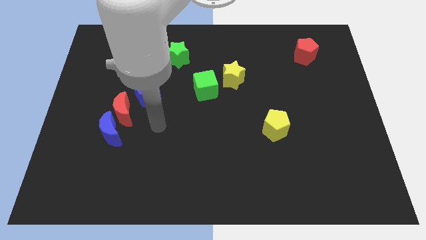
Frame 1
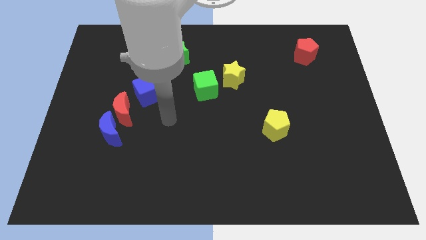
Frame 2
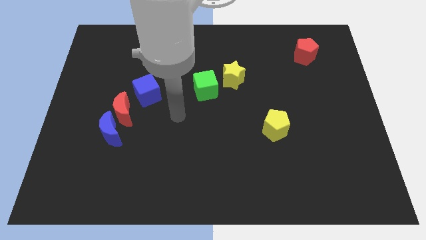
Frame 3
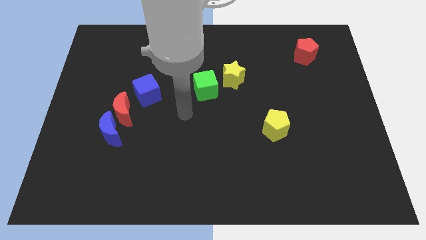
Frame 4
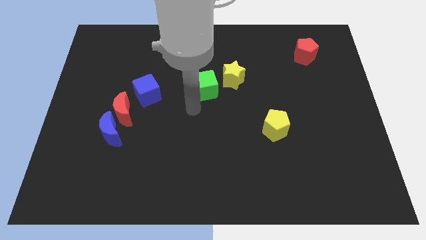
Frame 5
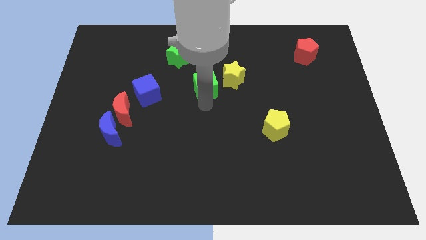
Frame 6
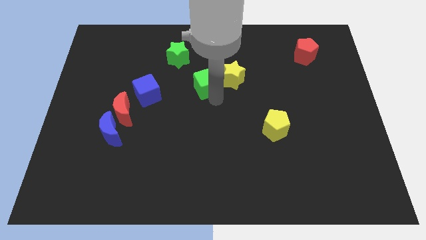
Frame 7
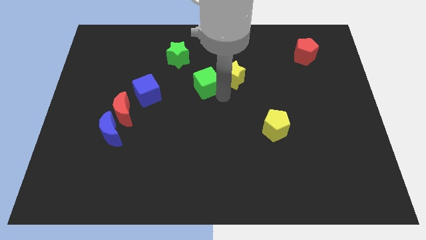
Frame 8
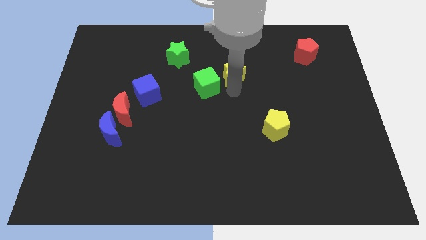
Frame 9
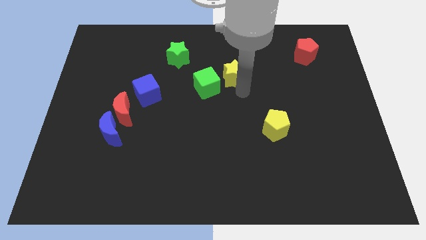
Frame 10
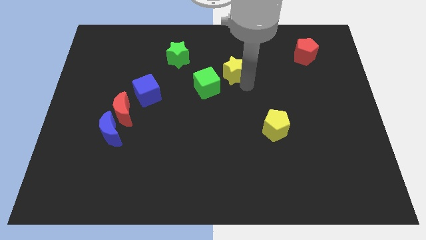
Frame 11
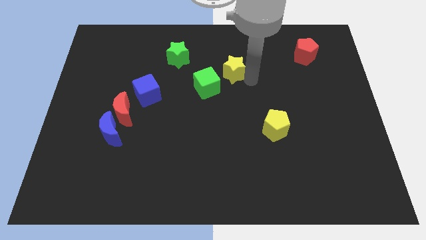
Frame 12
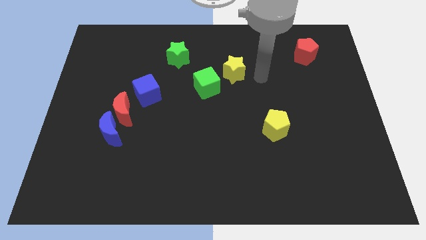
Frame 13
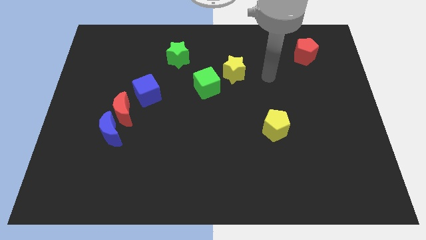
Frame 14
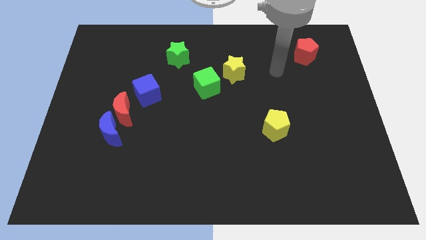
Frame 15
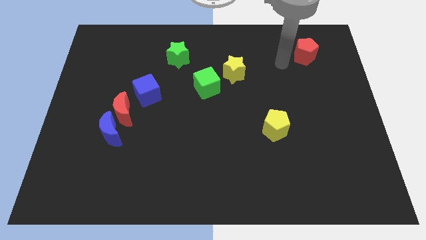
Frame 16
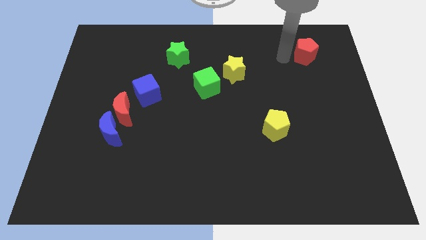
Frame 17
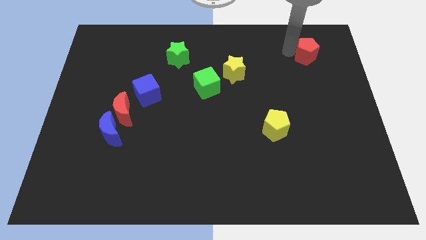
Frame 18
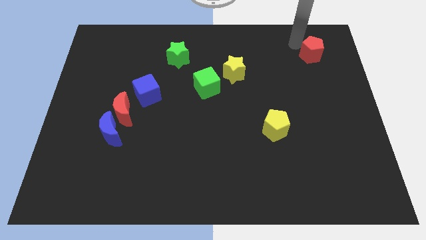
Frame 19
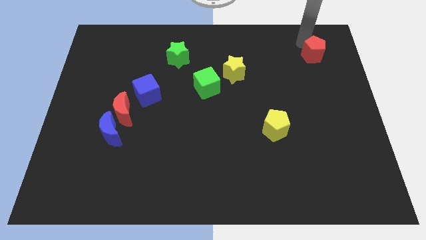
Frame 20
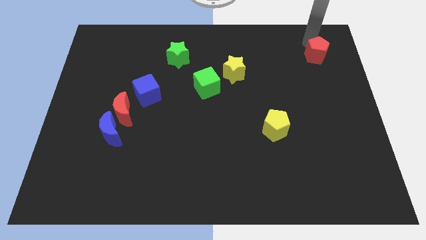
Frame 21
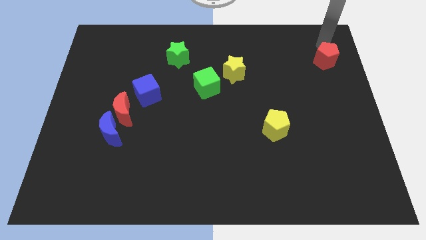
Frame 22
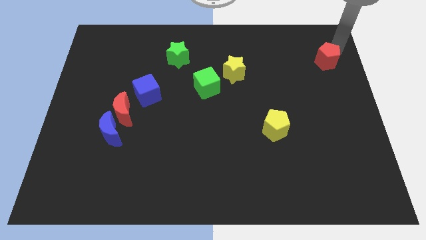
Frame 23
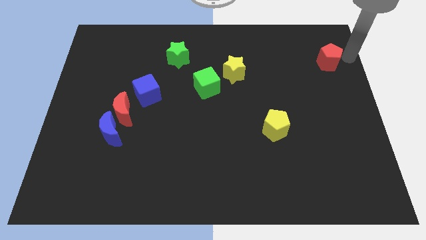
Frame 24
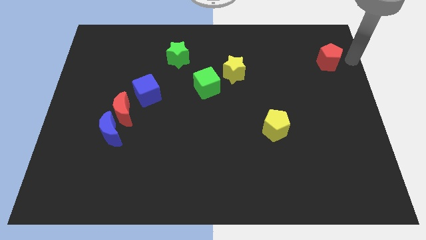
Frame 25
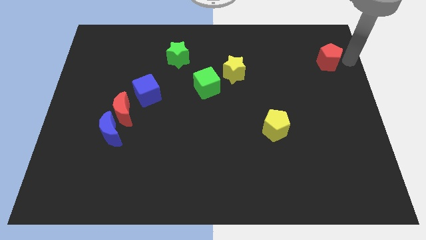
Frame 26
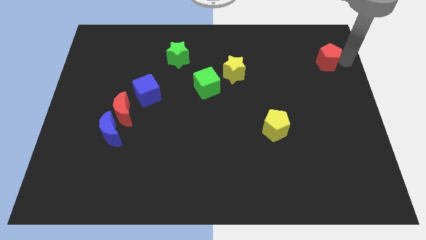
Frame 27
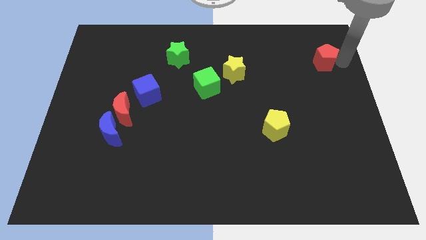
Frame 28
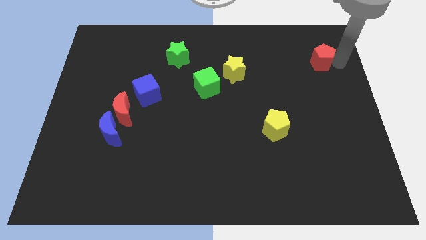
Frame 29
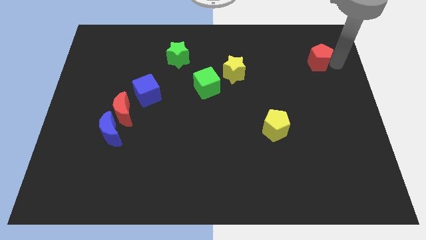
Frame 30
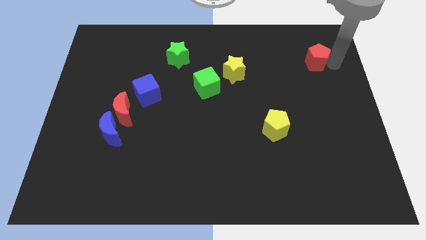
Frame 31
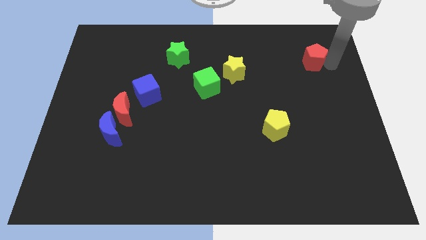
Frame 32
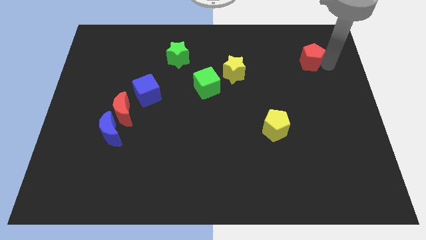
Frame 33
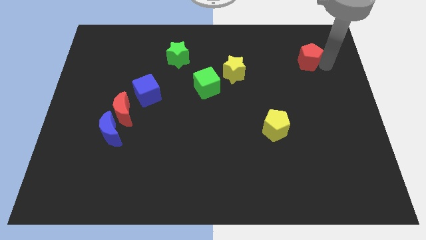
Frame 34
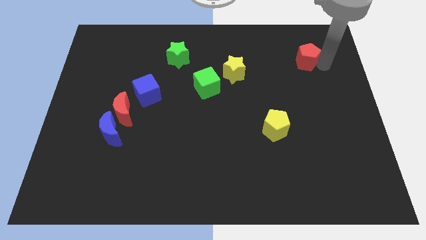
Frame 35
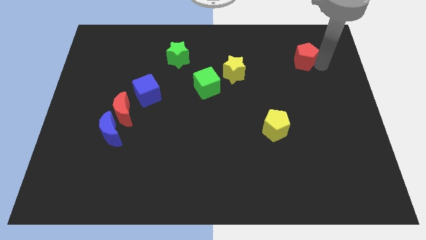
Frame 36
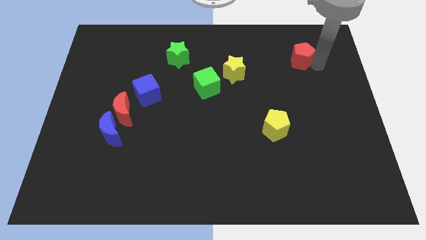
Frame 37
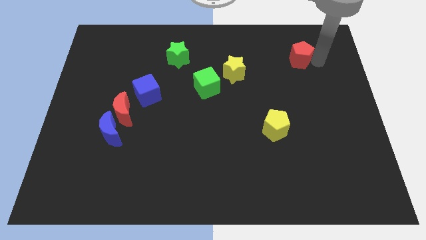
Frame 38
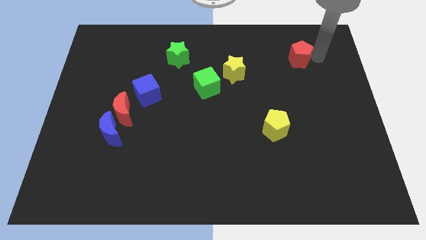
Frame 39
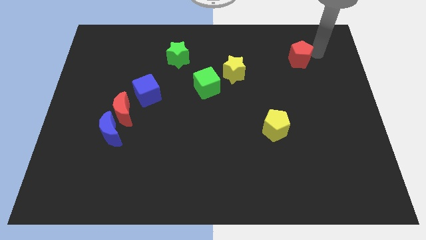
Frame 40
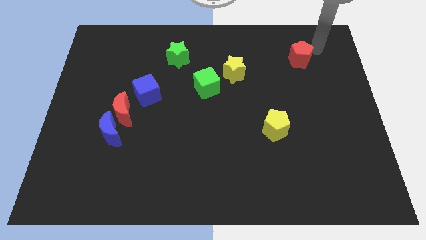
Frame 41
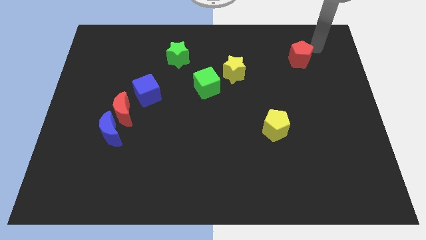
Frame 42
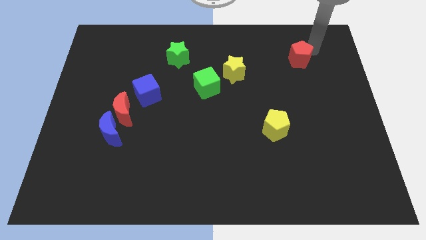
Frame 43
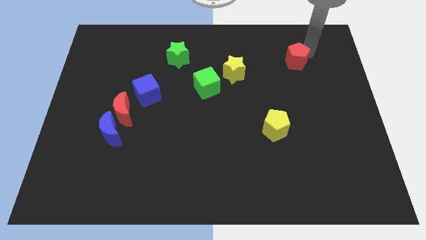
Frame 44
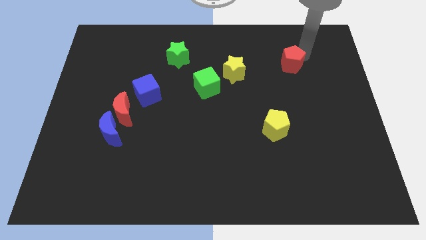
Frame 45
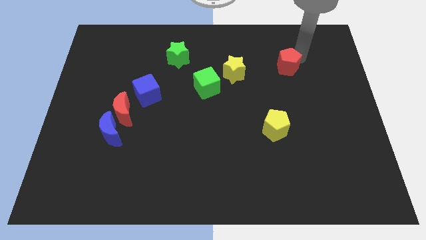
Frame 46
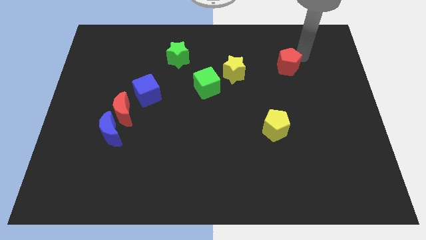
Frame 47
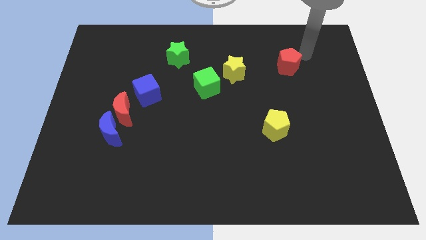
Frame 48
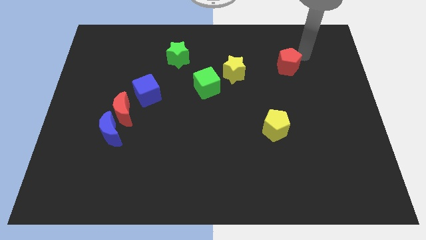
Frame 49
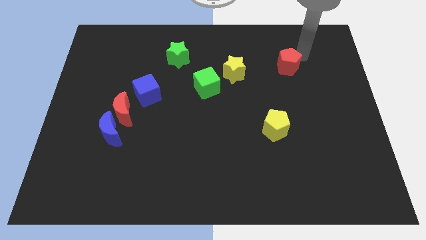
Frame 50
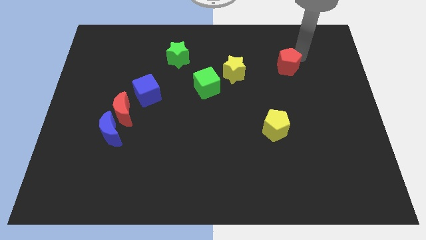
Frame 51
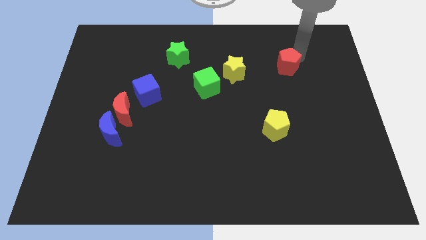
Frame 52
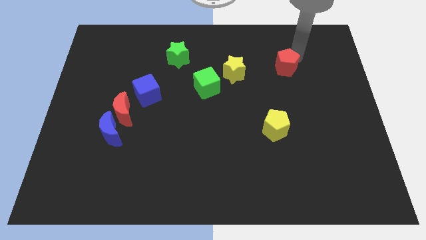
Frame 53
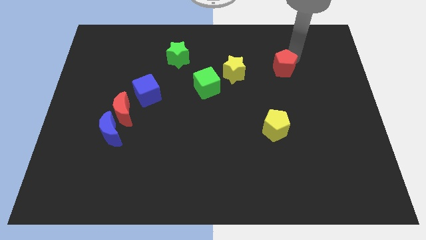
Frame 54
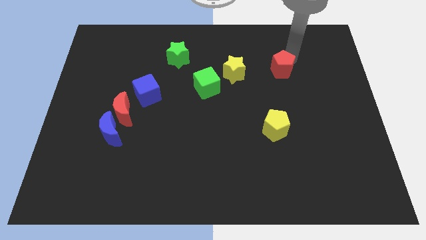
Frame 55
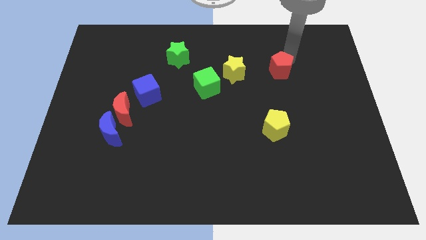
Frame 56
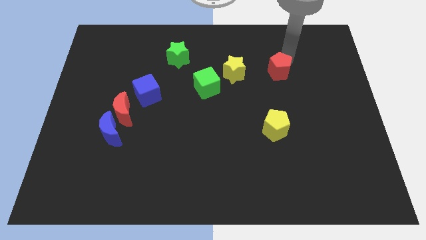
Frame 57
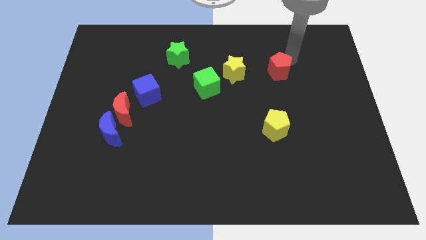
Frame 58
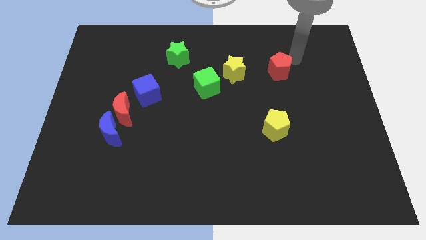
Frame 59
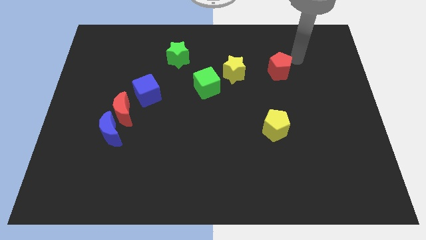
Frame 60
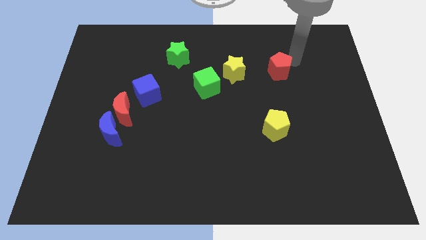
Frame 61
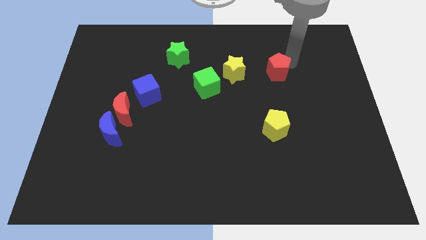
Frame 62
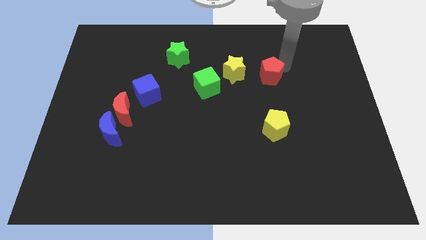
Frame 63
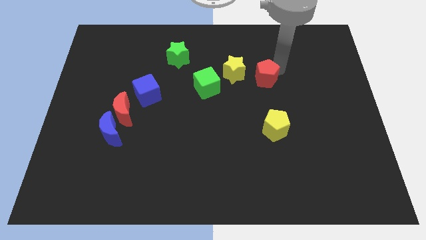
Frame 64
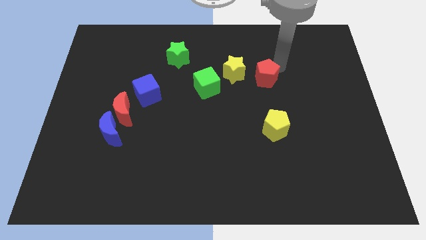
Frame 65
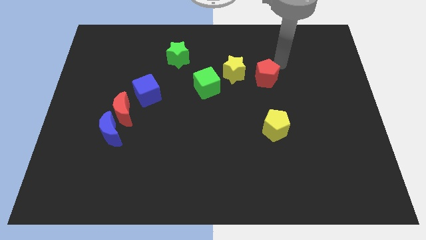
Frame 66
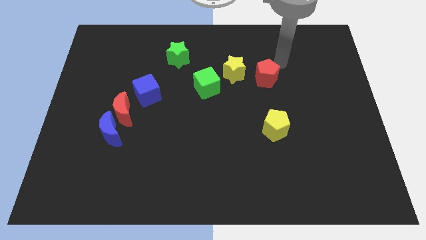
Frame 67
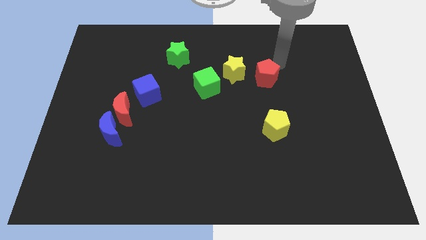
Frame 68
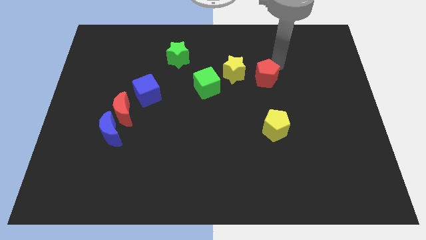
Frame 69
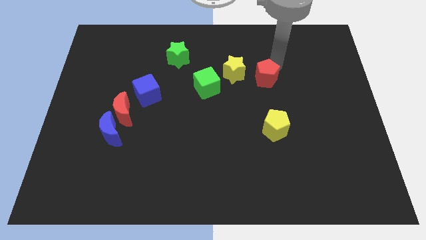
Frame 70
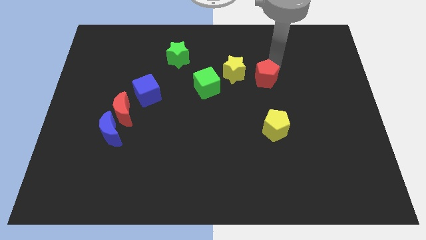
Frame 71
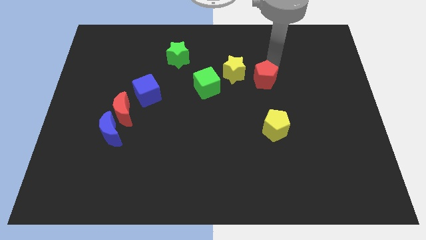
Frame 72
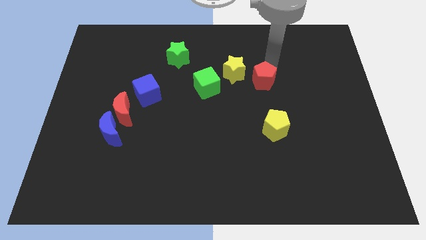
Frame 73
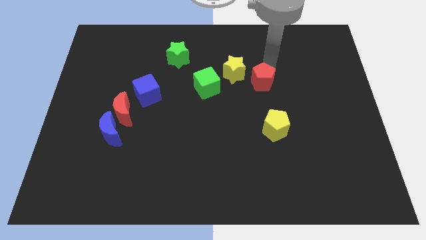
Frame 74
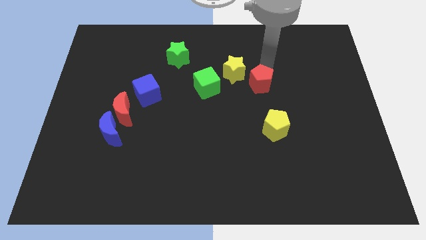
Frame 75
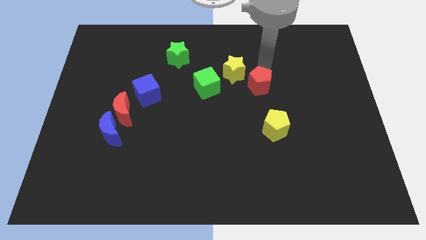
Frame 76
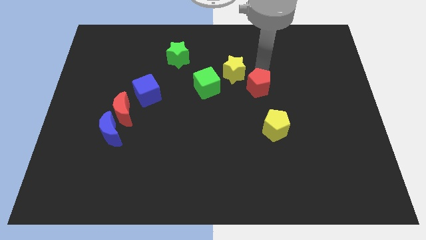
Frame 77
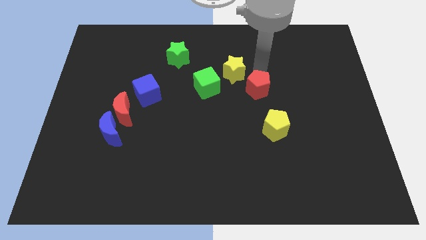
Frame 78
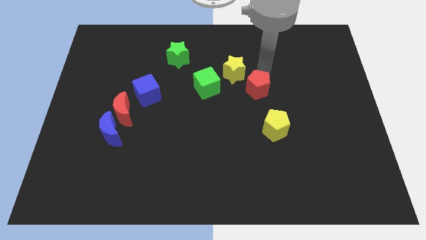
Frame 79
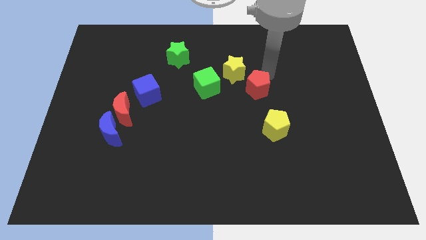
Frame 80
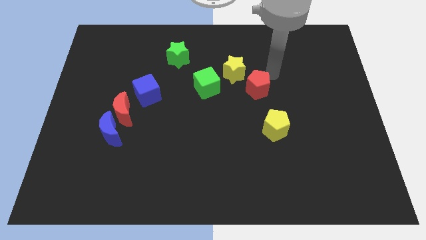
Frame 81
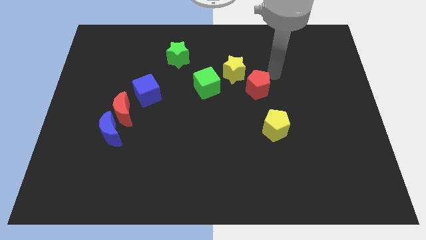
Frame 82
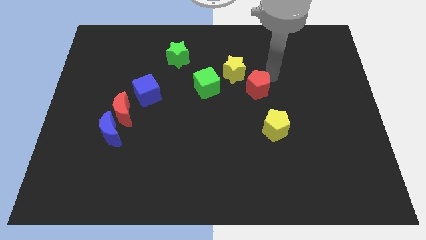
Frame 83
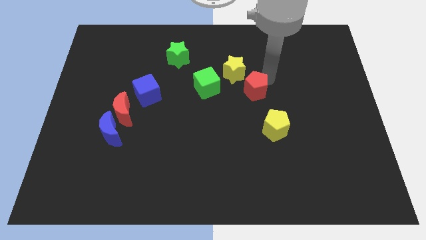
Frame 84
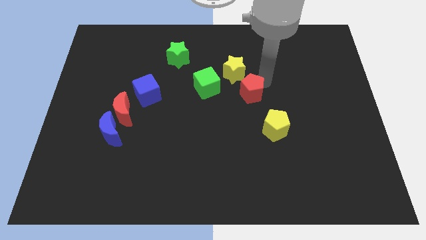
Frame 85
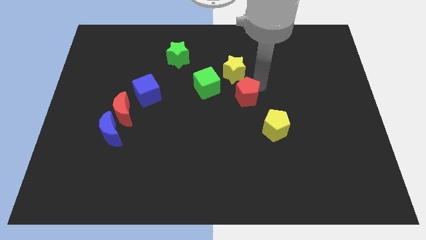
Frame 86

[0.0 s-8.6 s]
slide the red pentagon diagonally downwards and to the left
